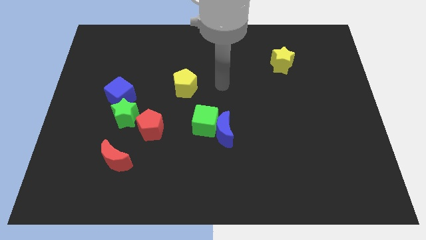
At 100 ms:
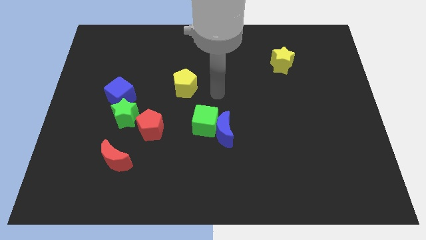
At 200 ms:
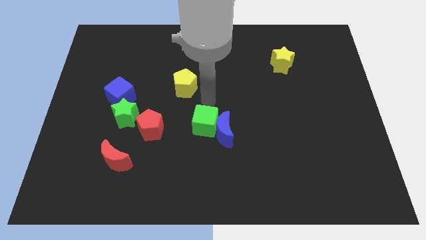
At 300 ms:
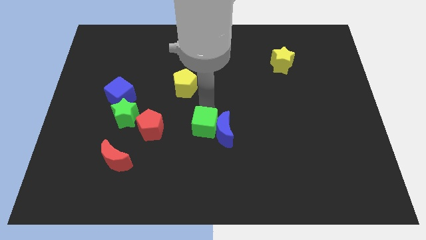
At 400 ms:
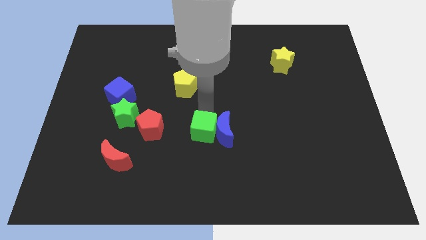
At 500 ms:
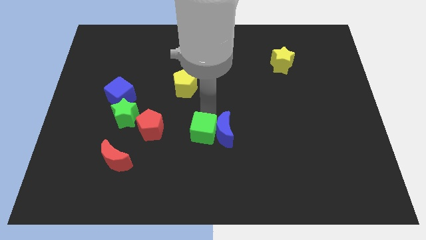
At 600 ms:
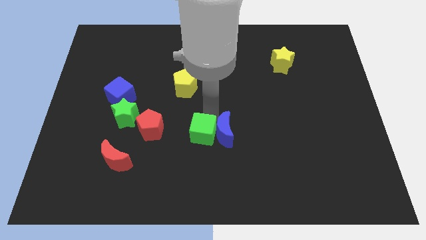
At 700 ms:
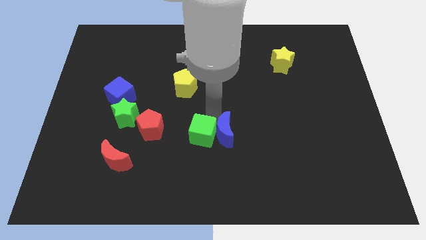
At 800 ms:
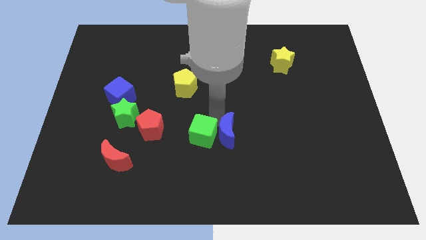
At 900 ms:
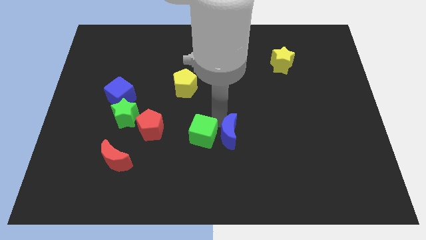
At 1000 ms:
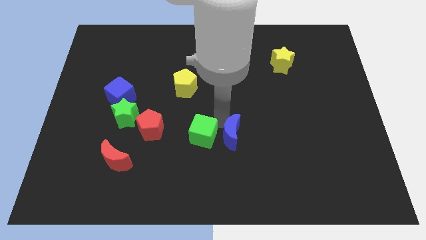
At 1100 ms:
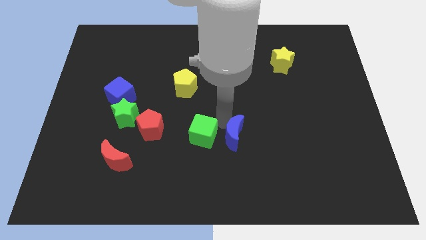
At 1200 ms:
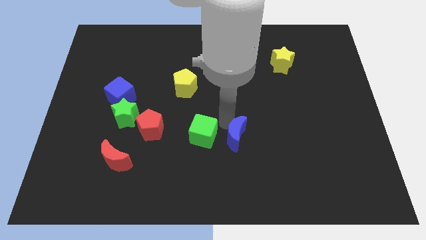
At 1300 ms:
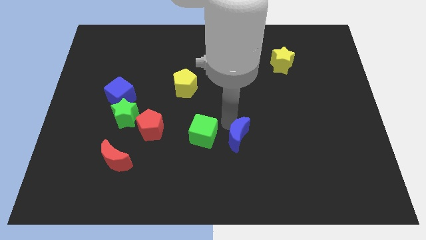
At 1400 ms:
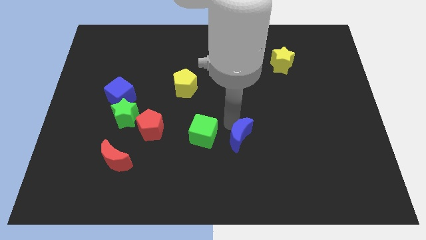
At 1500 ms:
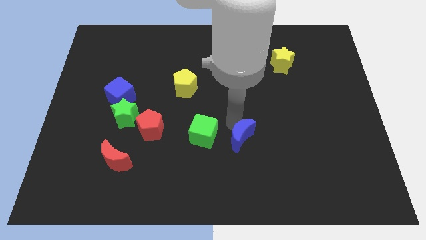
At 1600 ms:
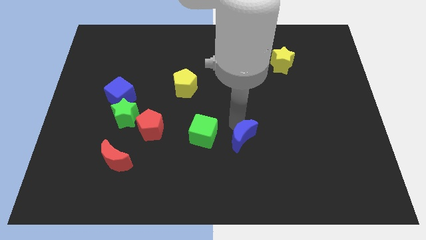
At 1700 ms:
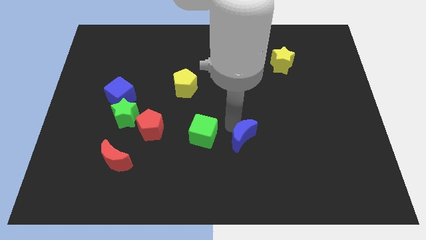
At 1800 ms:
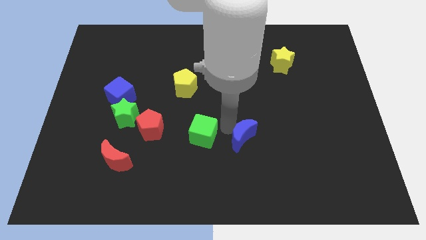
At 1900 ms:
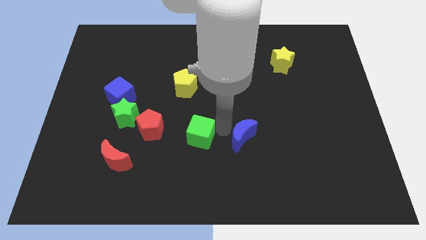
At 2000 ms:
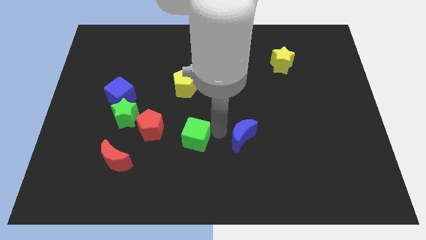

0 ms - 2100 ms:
pull the blue moon apart from the green cube

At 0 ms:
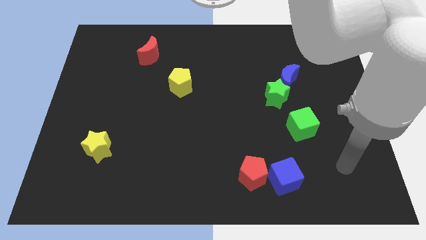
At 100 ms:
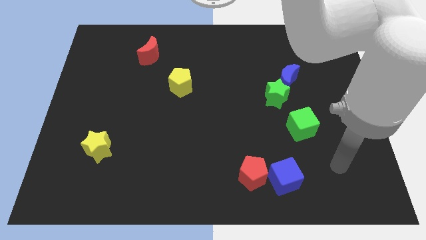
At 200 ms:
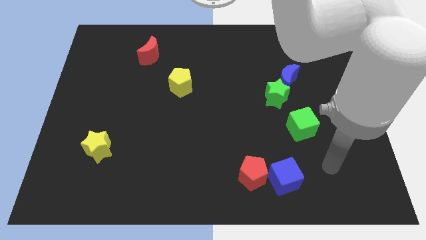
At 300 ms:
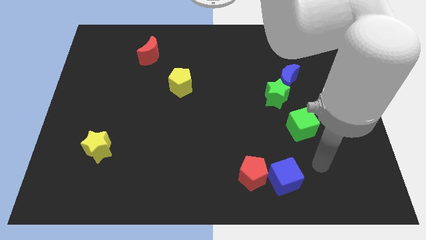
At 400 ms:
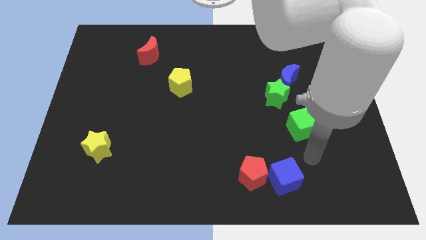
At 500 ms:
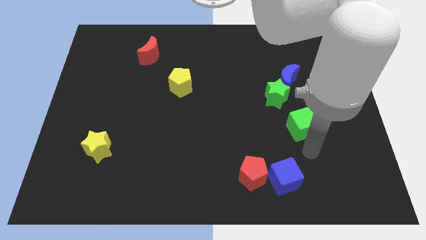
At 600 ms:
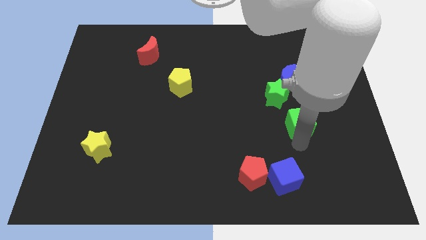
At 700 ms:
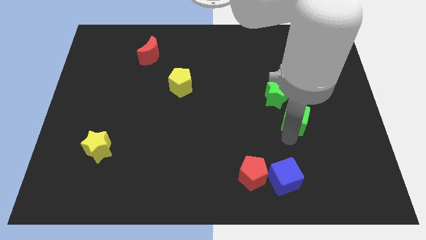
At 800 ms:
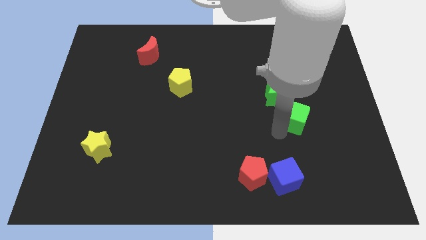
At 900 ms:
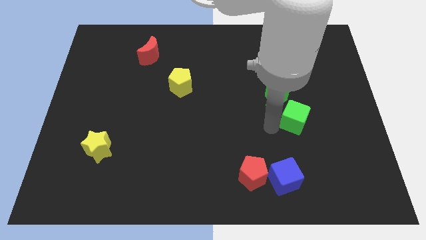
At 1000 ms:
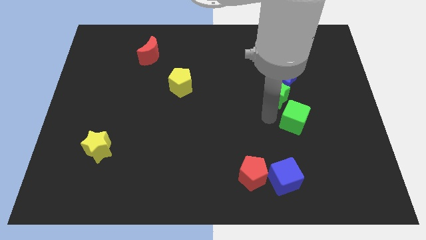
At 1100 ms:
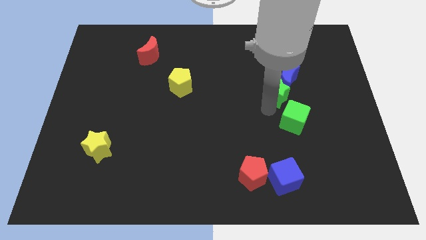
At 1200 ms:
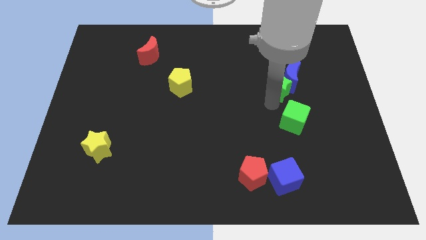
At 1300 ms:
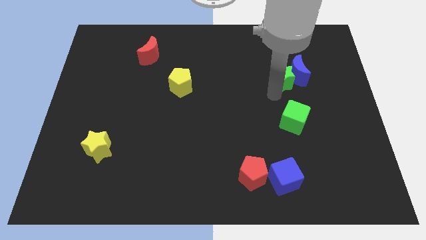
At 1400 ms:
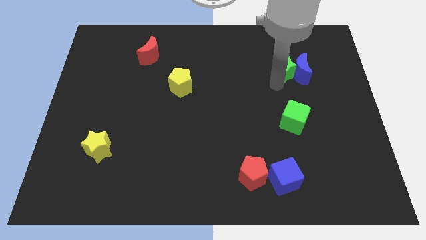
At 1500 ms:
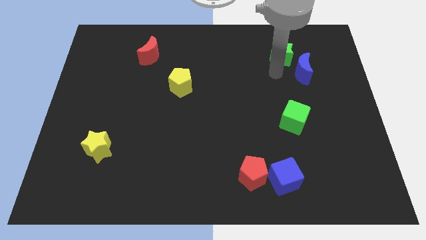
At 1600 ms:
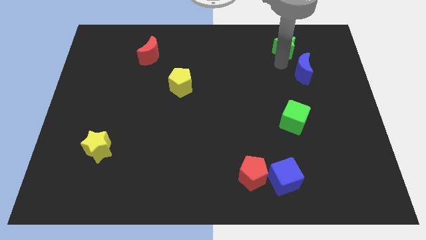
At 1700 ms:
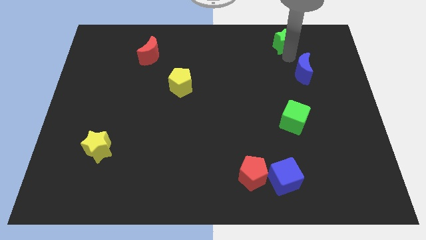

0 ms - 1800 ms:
pull the blue moon apart from the green star

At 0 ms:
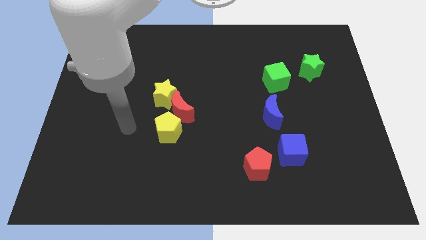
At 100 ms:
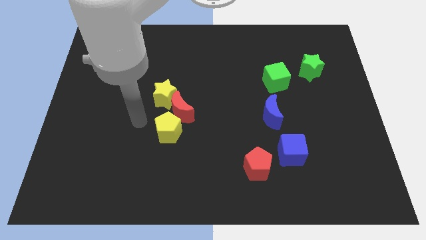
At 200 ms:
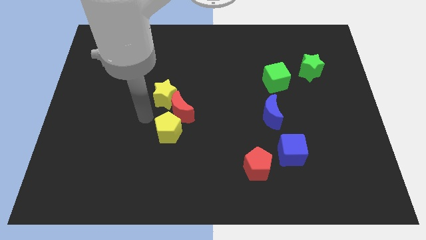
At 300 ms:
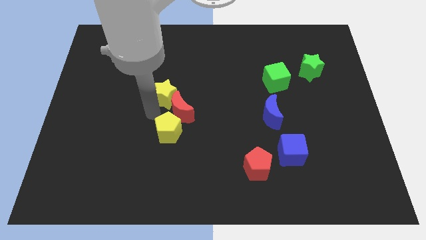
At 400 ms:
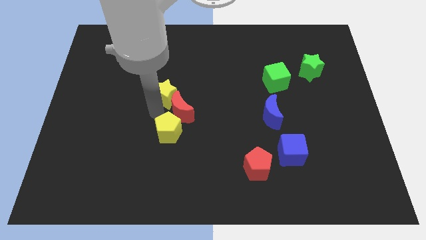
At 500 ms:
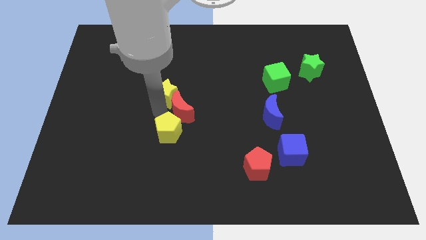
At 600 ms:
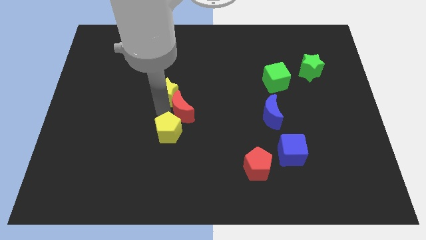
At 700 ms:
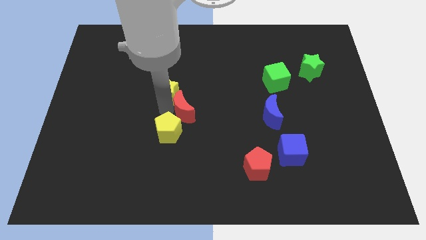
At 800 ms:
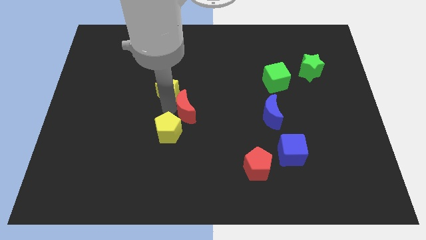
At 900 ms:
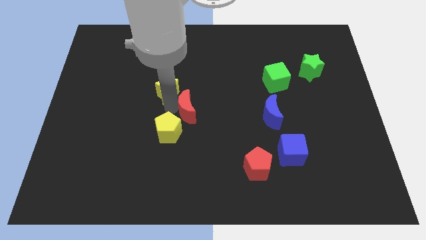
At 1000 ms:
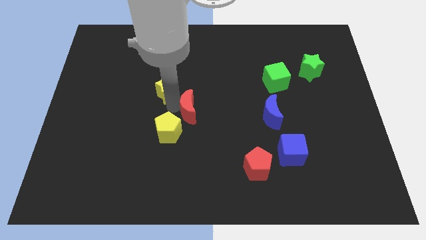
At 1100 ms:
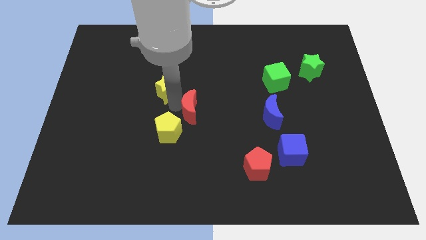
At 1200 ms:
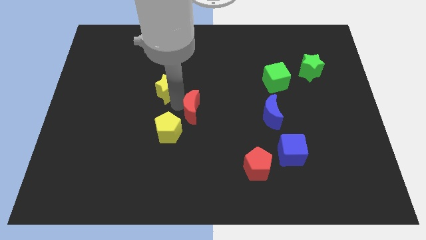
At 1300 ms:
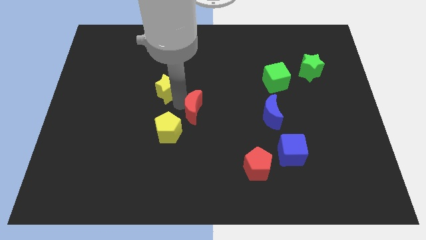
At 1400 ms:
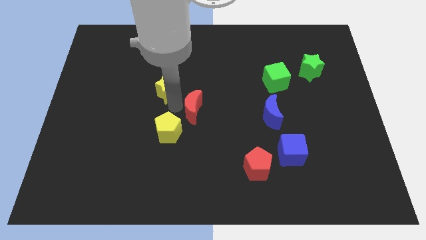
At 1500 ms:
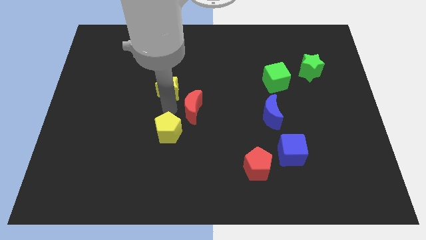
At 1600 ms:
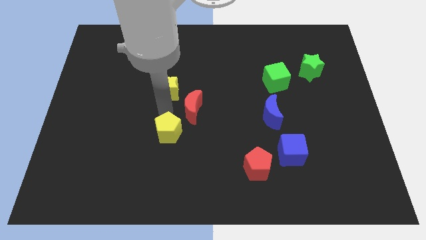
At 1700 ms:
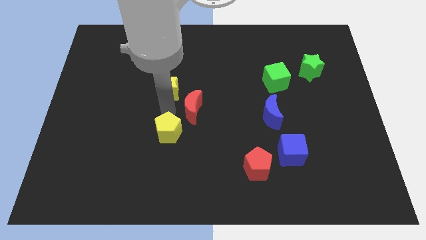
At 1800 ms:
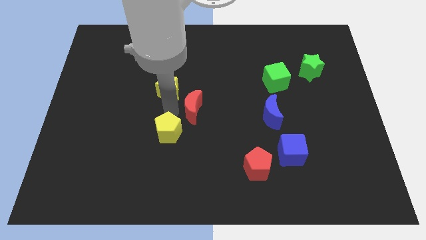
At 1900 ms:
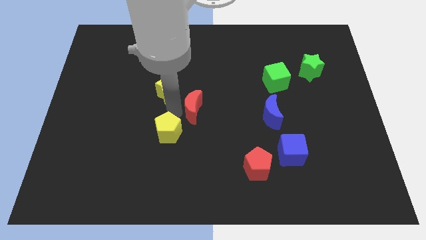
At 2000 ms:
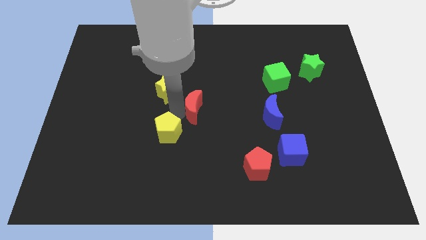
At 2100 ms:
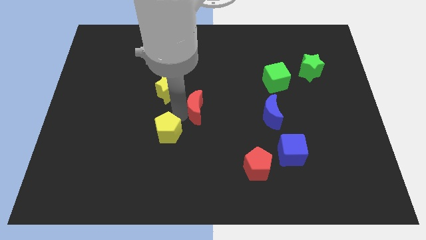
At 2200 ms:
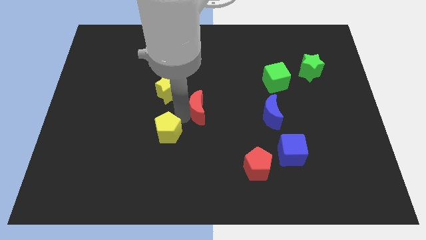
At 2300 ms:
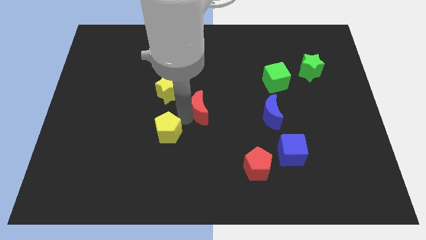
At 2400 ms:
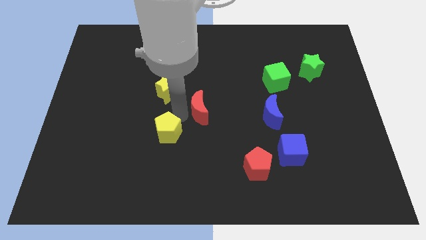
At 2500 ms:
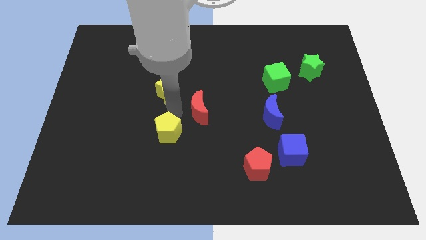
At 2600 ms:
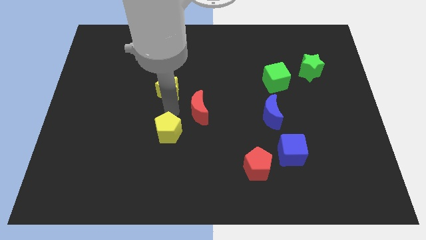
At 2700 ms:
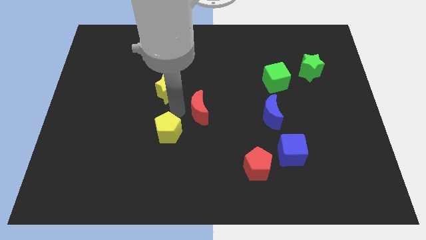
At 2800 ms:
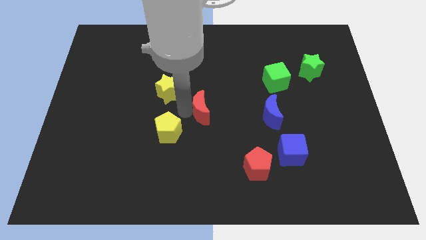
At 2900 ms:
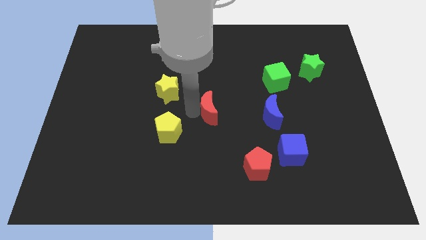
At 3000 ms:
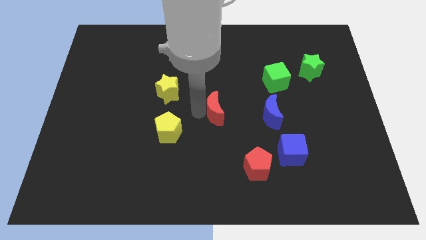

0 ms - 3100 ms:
move the red moon away from the yellow pentagon and yellow star

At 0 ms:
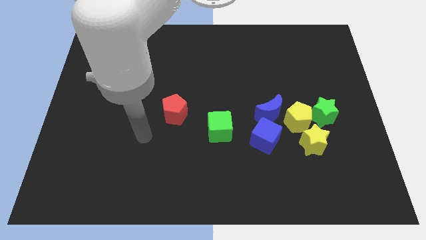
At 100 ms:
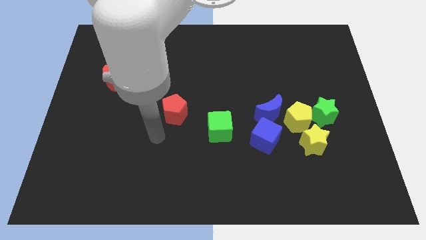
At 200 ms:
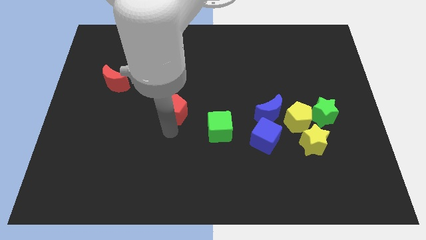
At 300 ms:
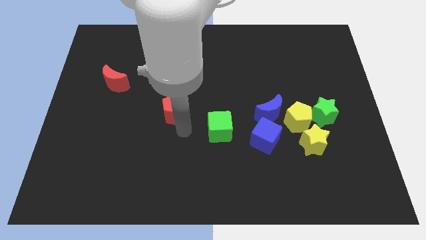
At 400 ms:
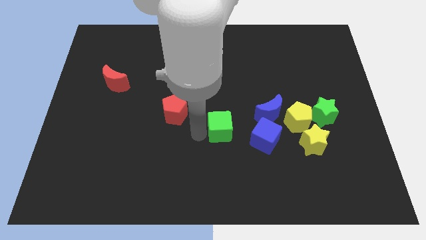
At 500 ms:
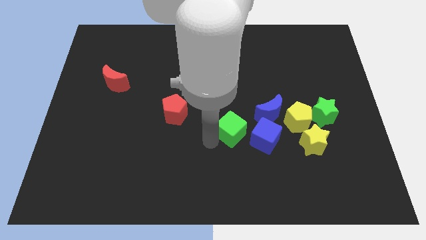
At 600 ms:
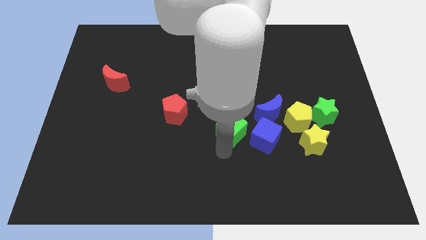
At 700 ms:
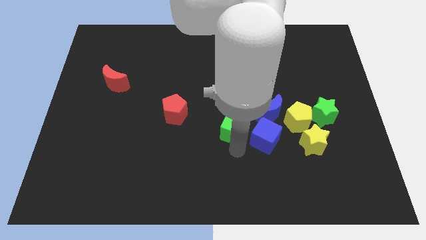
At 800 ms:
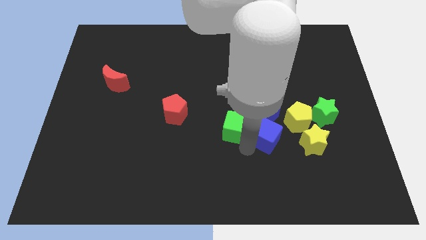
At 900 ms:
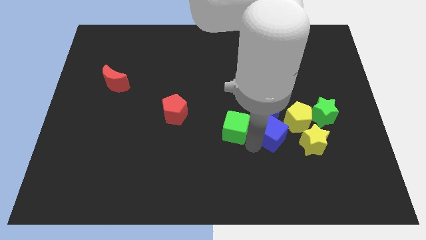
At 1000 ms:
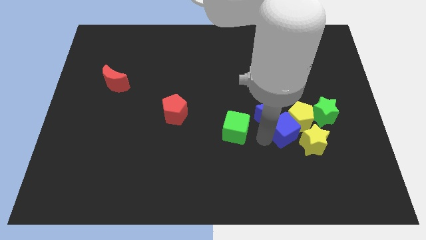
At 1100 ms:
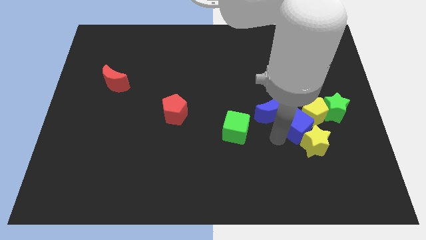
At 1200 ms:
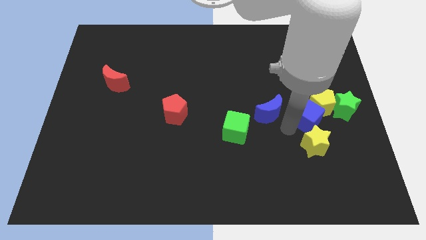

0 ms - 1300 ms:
move the blue moon away from the yellow pentagon and blue cube

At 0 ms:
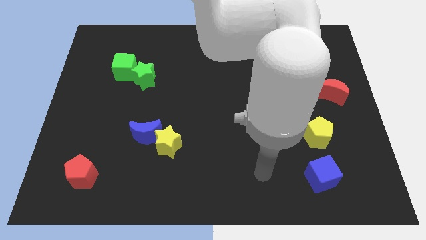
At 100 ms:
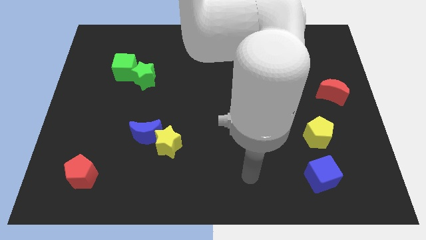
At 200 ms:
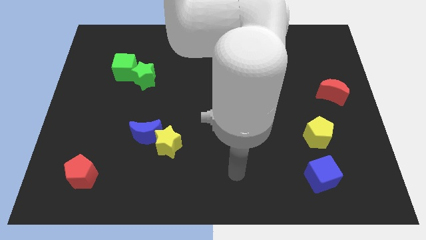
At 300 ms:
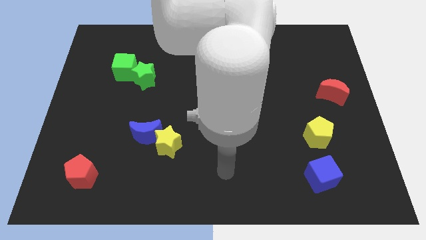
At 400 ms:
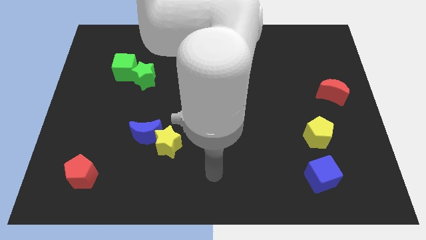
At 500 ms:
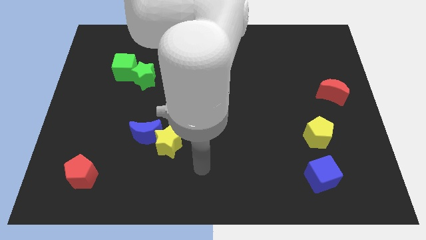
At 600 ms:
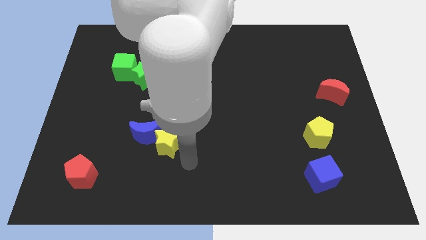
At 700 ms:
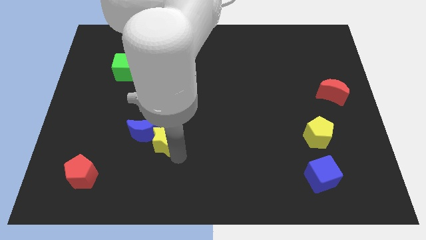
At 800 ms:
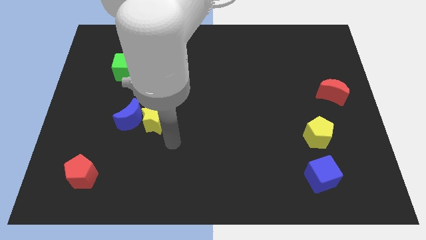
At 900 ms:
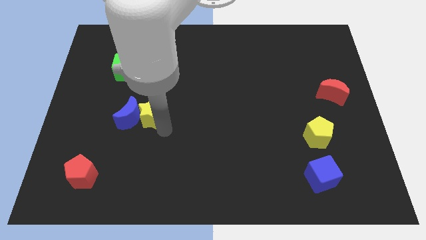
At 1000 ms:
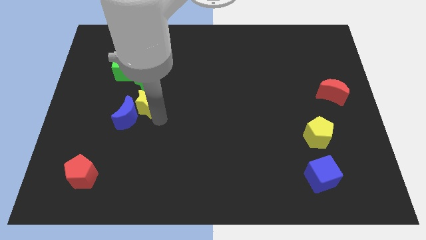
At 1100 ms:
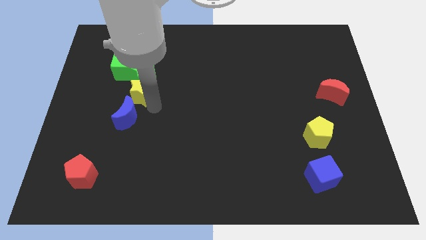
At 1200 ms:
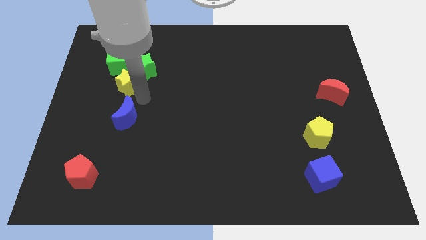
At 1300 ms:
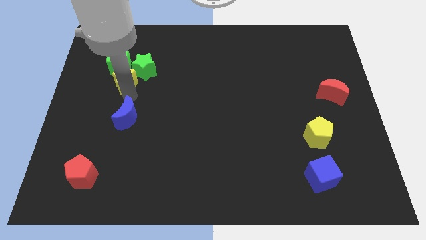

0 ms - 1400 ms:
separate the blue moon from the yellow star
